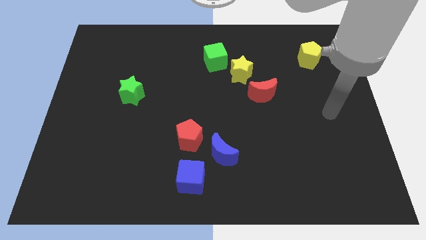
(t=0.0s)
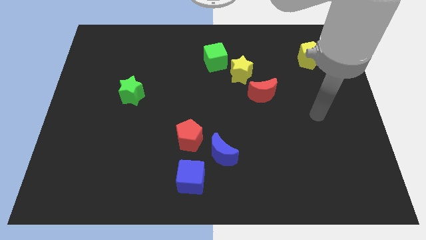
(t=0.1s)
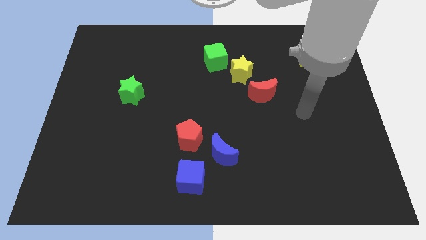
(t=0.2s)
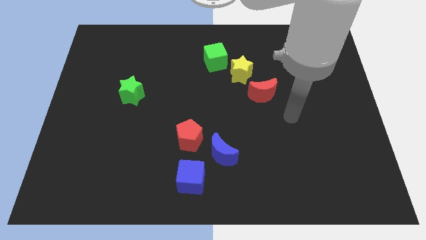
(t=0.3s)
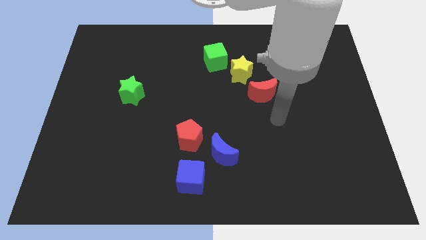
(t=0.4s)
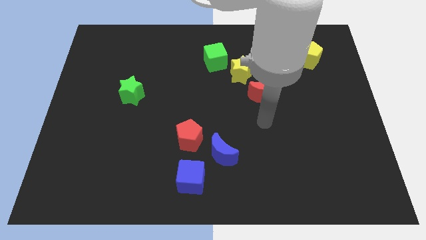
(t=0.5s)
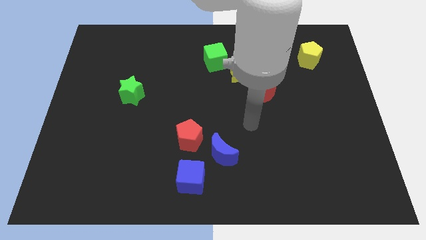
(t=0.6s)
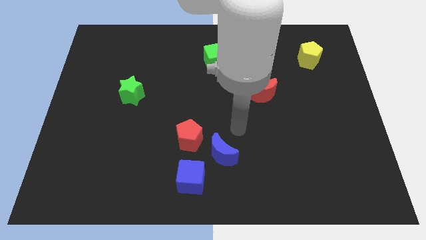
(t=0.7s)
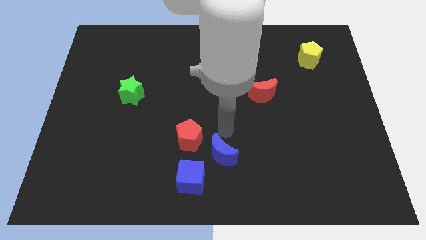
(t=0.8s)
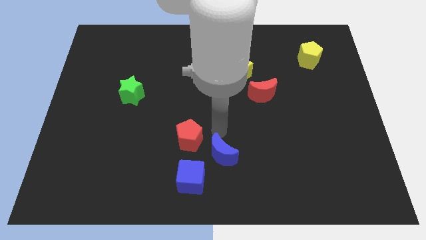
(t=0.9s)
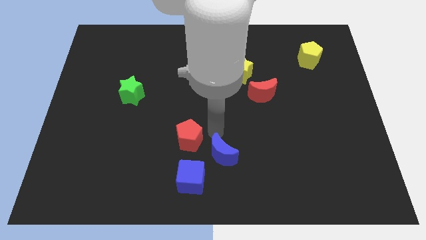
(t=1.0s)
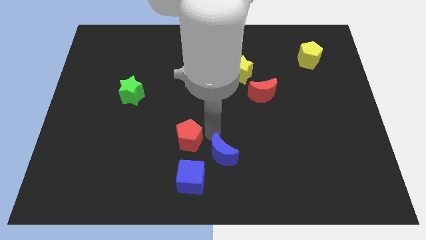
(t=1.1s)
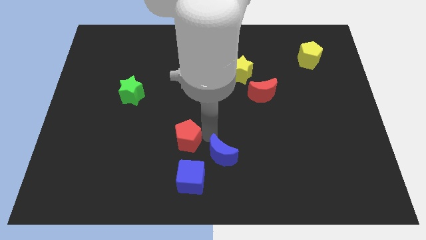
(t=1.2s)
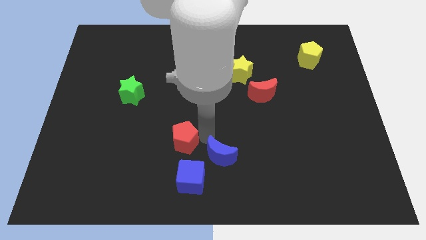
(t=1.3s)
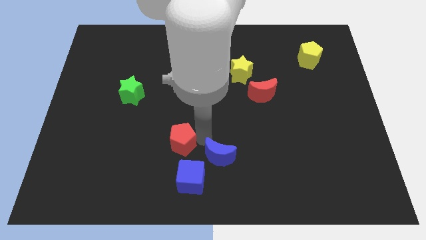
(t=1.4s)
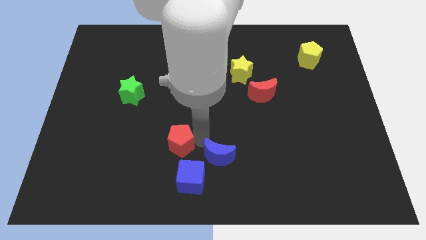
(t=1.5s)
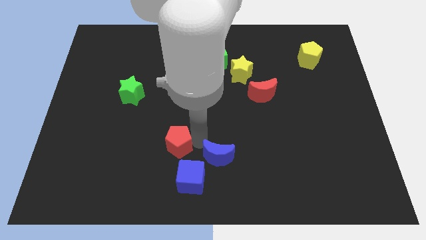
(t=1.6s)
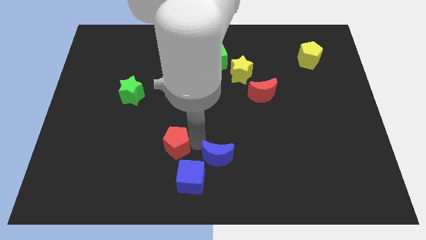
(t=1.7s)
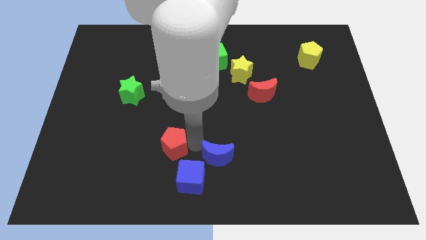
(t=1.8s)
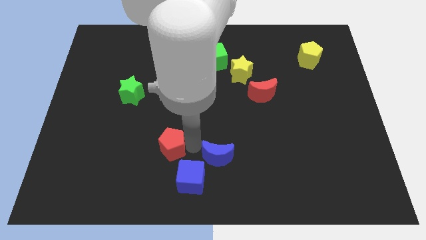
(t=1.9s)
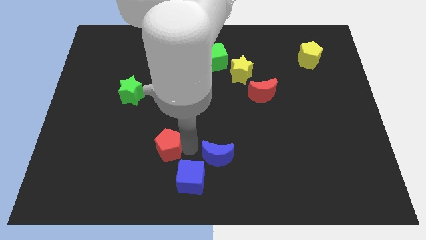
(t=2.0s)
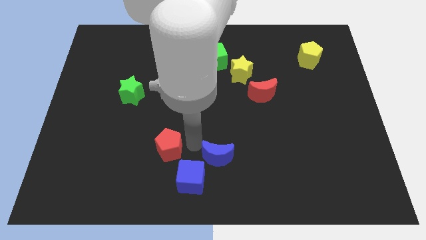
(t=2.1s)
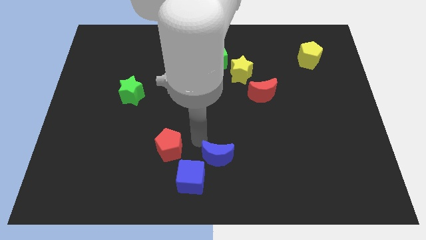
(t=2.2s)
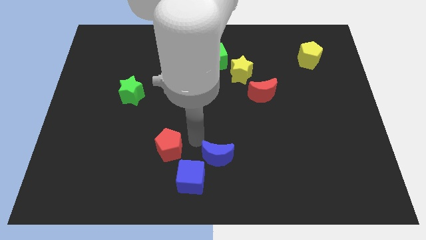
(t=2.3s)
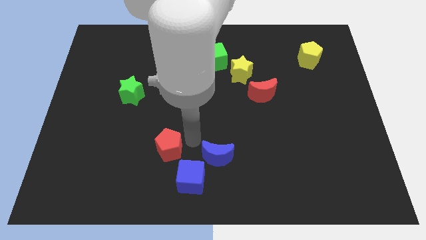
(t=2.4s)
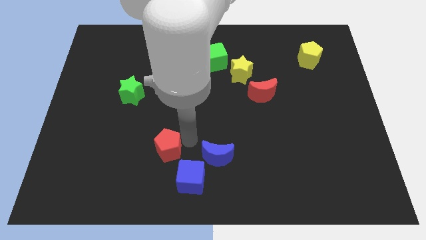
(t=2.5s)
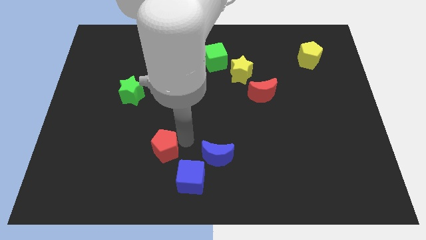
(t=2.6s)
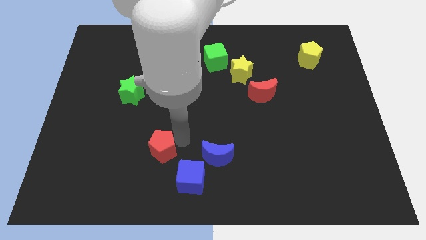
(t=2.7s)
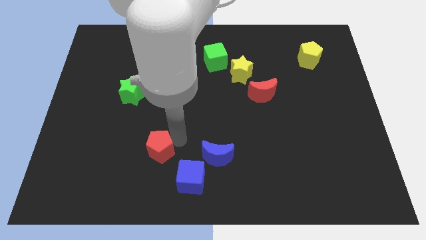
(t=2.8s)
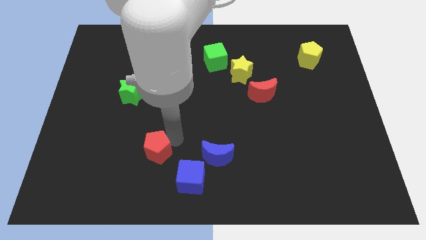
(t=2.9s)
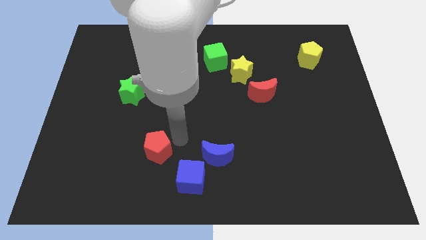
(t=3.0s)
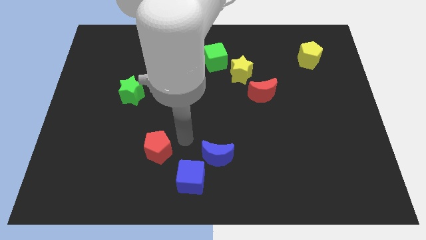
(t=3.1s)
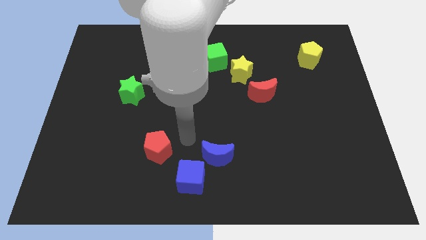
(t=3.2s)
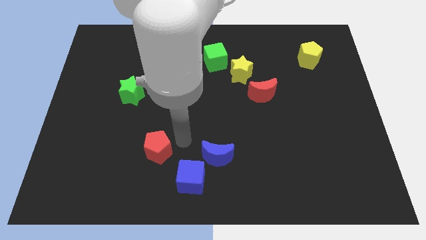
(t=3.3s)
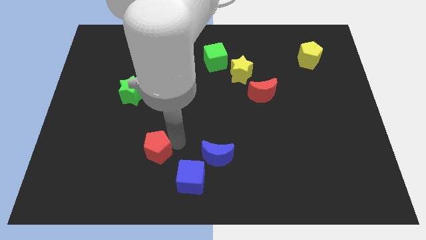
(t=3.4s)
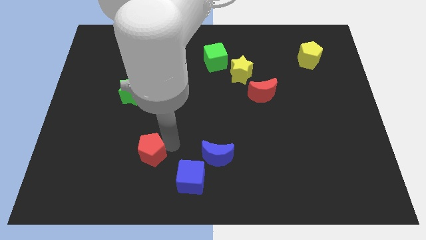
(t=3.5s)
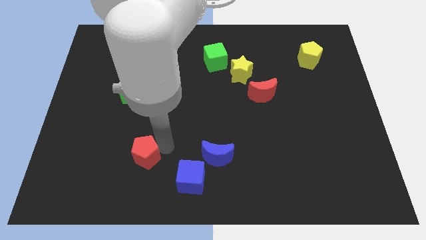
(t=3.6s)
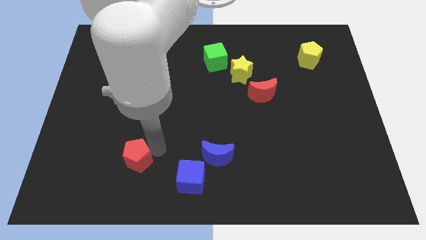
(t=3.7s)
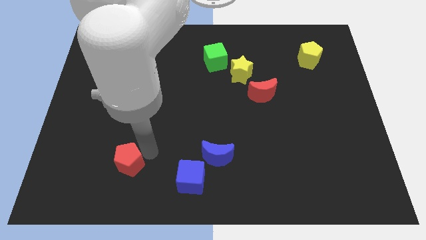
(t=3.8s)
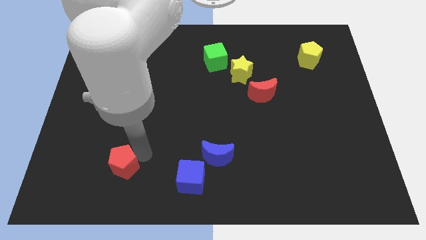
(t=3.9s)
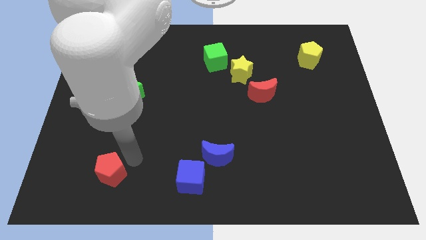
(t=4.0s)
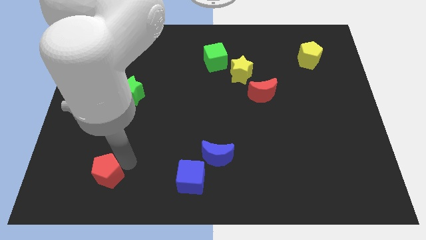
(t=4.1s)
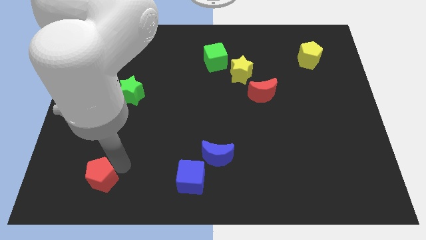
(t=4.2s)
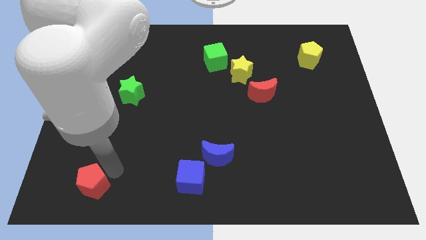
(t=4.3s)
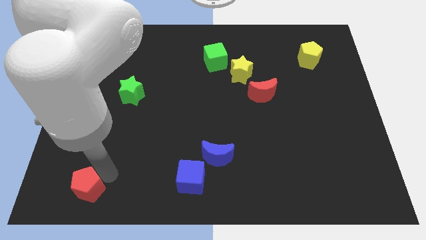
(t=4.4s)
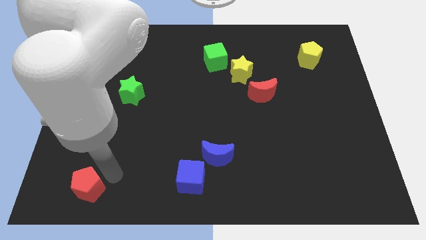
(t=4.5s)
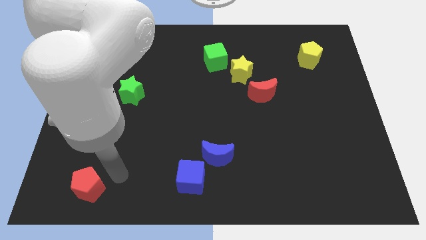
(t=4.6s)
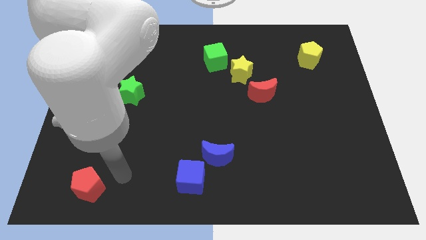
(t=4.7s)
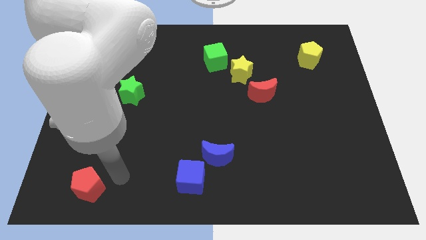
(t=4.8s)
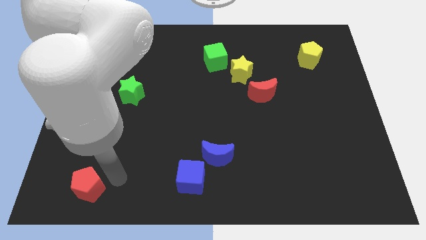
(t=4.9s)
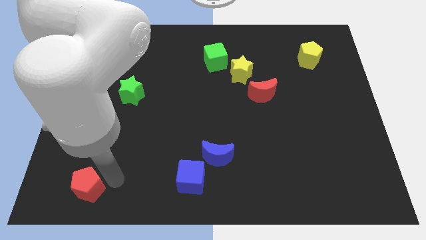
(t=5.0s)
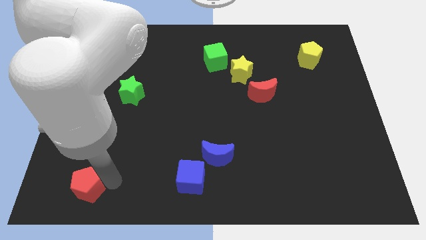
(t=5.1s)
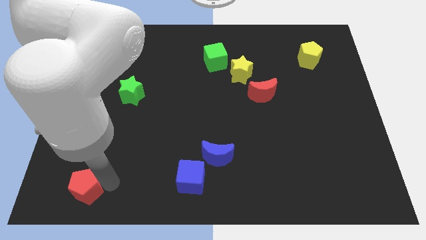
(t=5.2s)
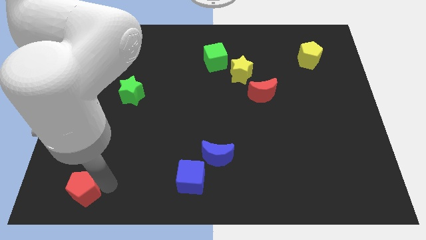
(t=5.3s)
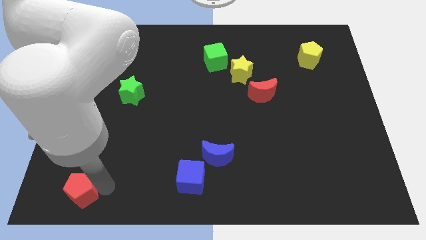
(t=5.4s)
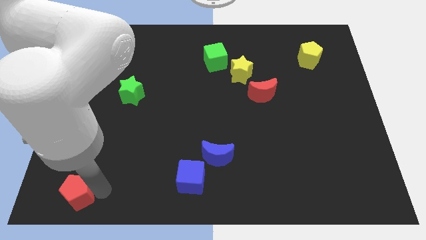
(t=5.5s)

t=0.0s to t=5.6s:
push the red pentagon to the bottom left corner

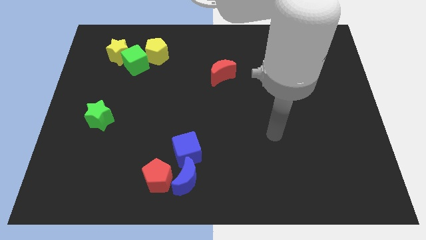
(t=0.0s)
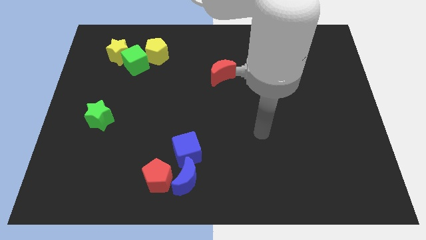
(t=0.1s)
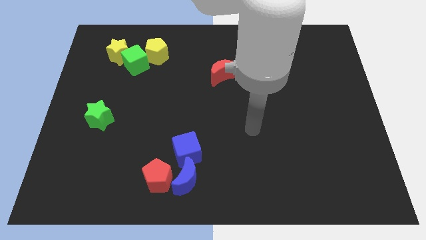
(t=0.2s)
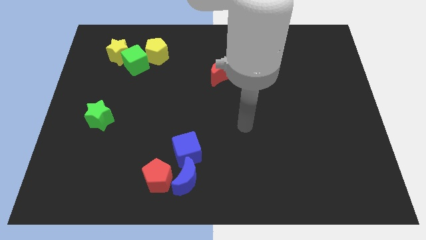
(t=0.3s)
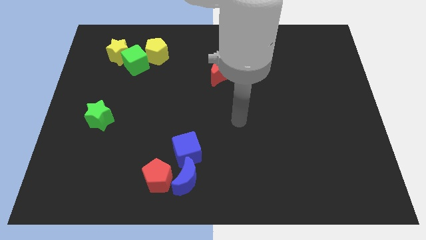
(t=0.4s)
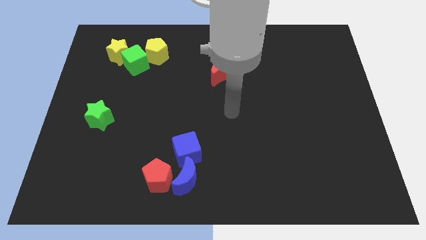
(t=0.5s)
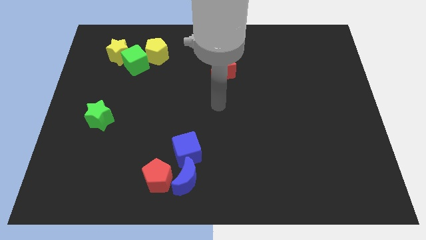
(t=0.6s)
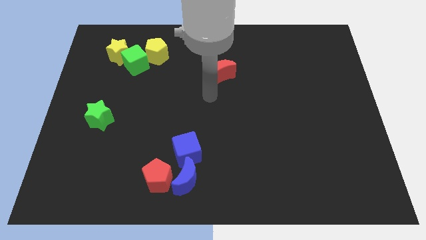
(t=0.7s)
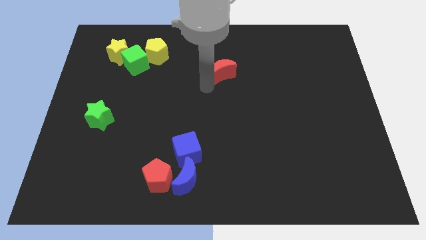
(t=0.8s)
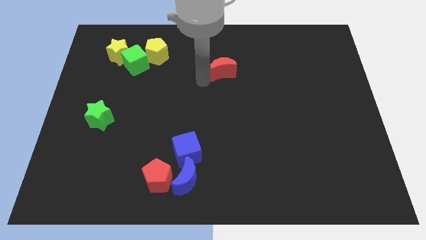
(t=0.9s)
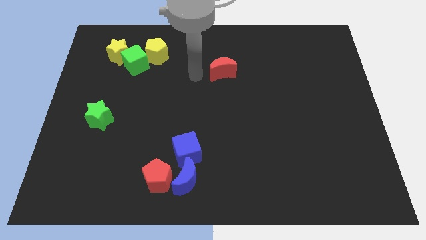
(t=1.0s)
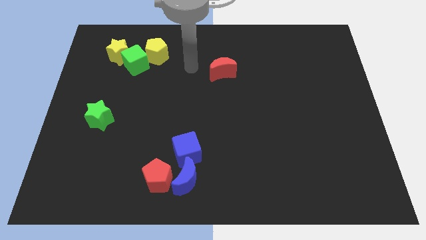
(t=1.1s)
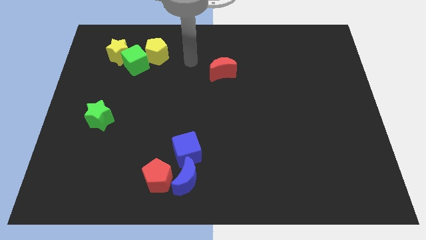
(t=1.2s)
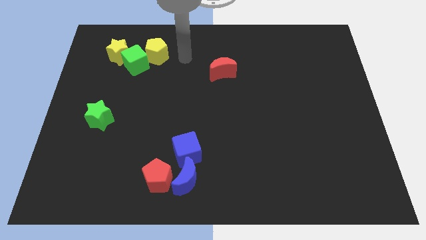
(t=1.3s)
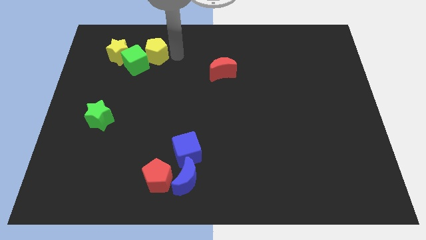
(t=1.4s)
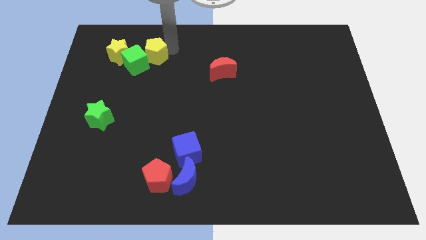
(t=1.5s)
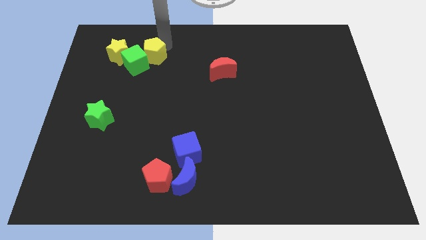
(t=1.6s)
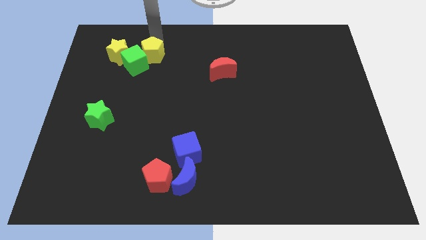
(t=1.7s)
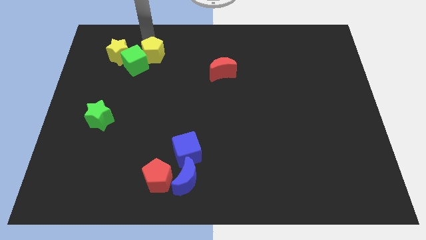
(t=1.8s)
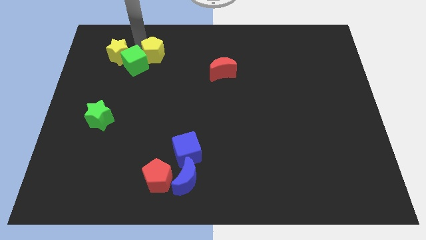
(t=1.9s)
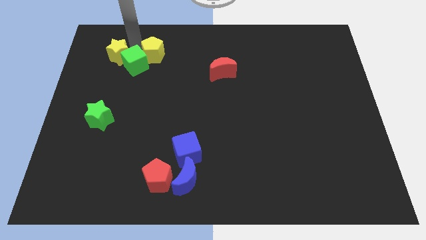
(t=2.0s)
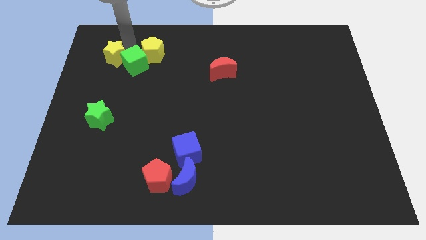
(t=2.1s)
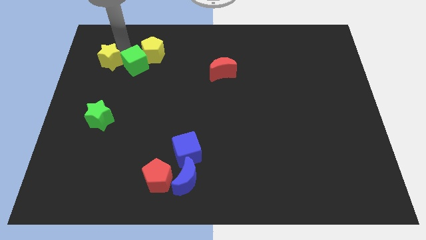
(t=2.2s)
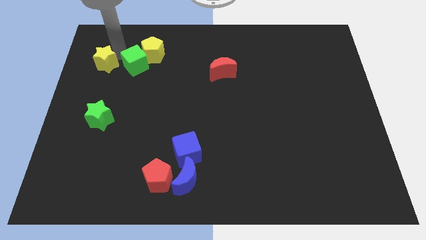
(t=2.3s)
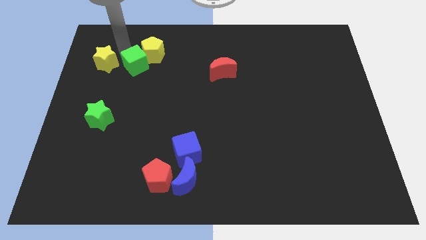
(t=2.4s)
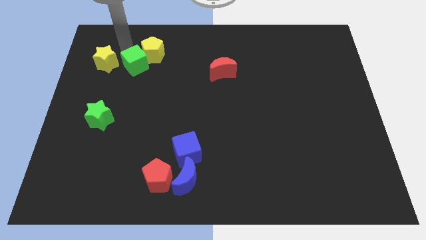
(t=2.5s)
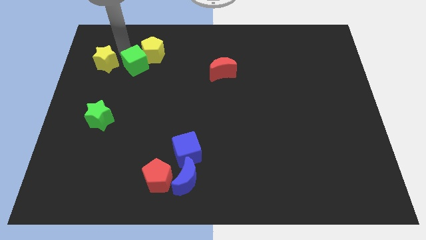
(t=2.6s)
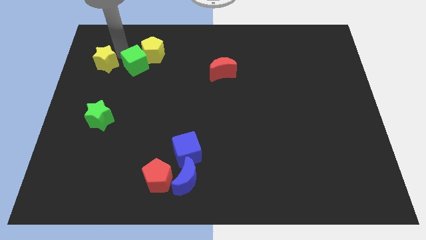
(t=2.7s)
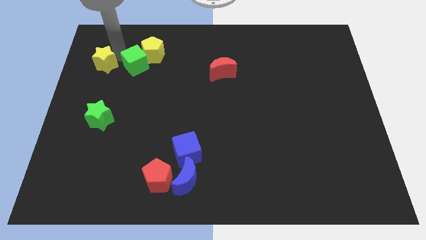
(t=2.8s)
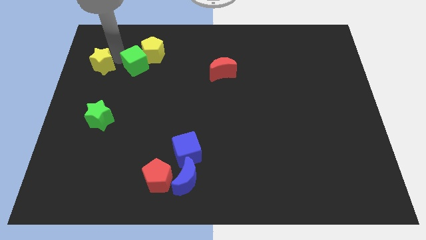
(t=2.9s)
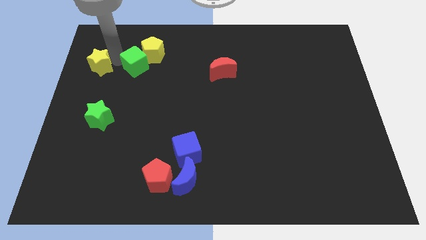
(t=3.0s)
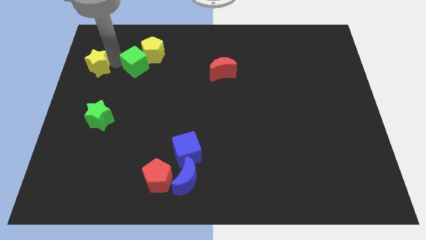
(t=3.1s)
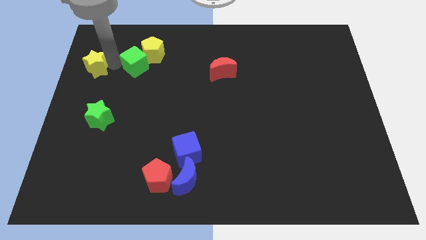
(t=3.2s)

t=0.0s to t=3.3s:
move the yellow star to the left side of the board
